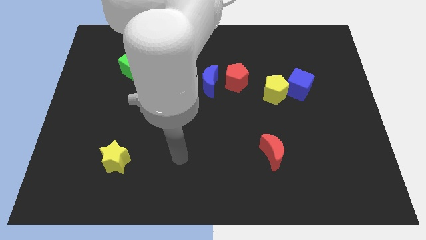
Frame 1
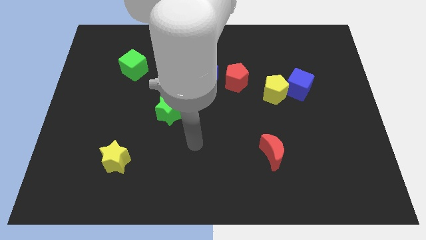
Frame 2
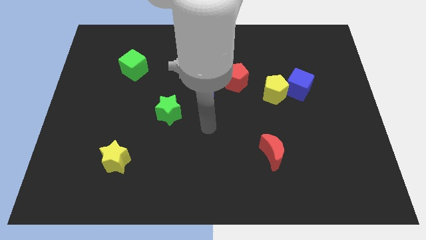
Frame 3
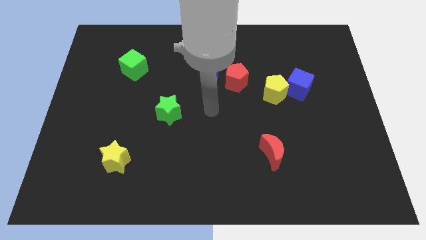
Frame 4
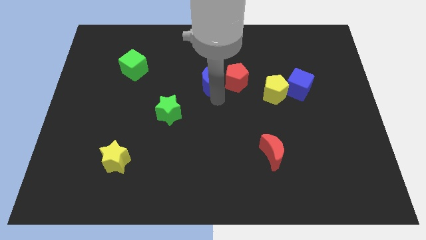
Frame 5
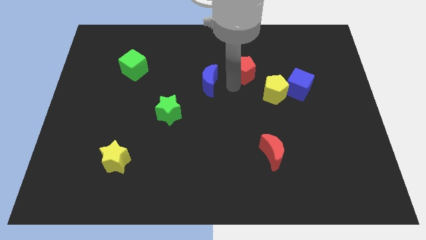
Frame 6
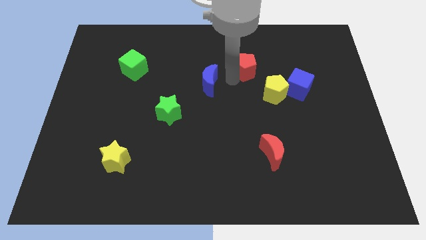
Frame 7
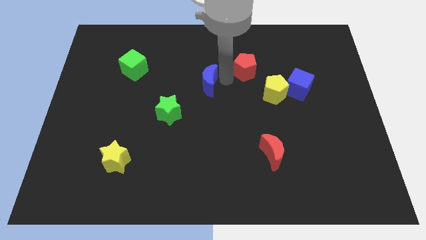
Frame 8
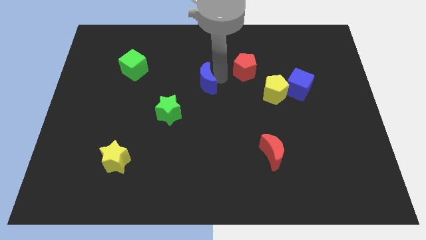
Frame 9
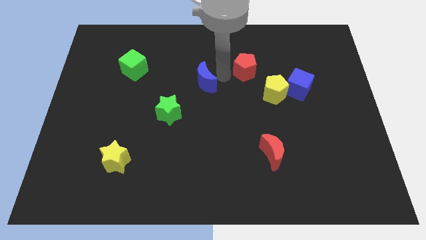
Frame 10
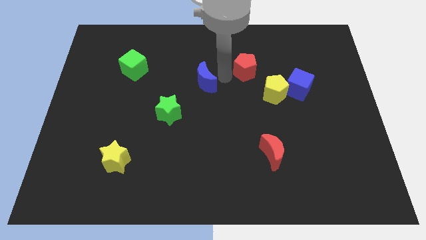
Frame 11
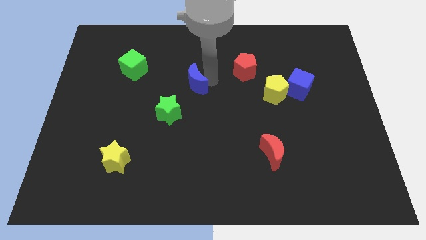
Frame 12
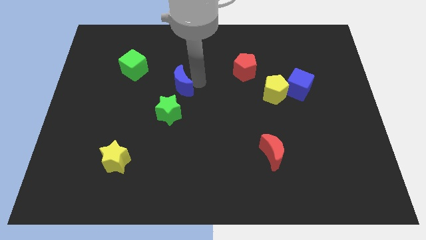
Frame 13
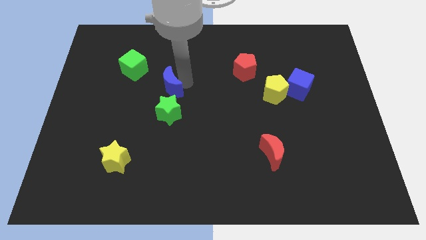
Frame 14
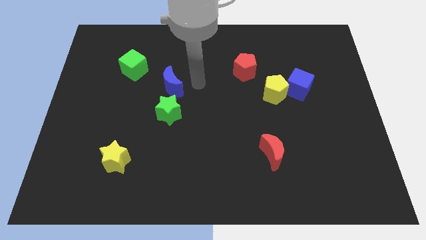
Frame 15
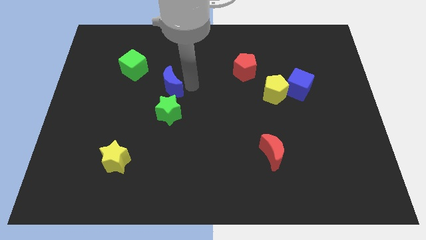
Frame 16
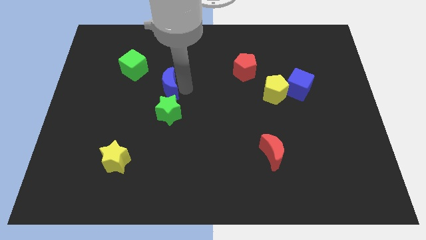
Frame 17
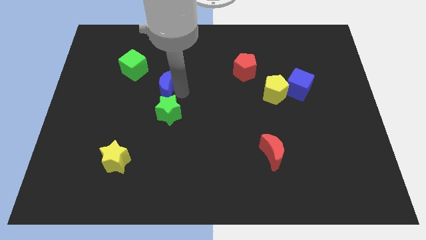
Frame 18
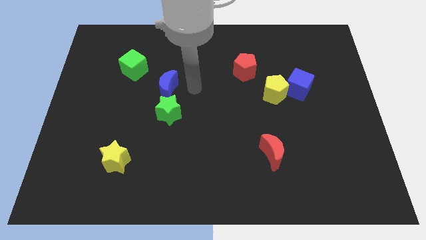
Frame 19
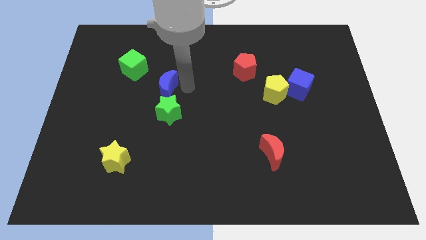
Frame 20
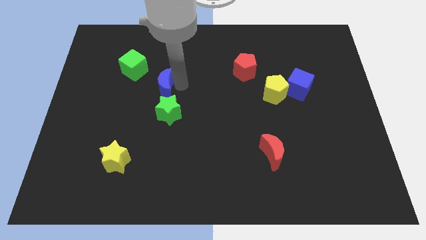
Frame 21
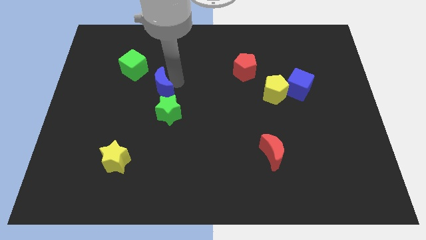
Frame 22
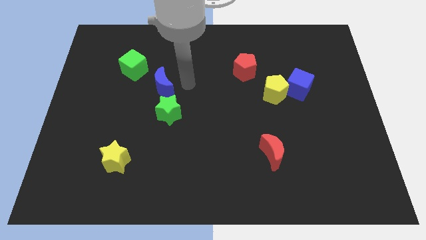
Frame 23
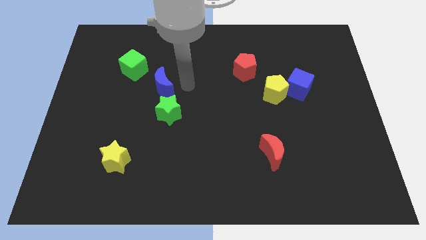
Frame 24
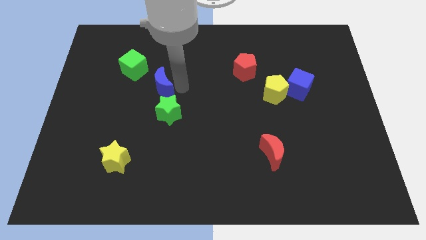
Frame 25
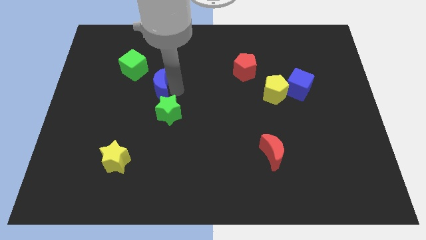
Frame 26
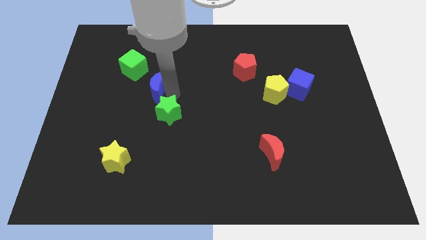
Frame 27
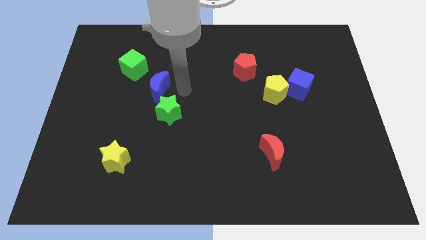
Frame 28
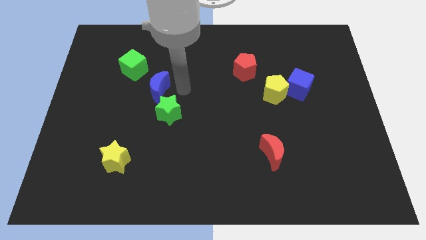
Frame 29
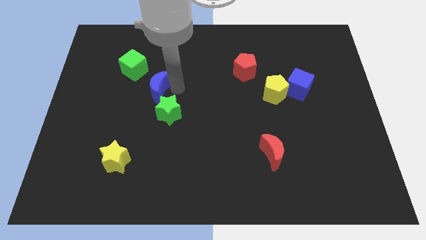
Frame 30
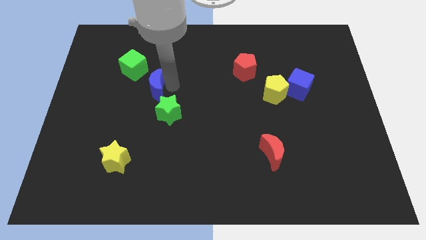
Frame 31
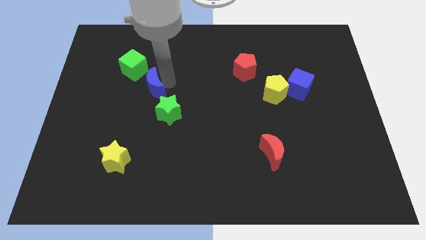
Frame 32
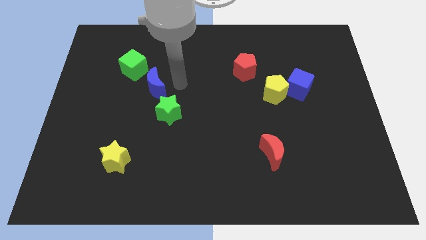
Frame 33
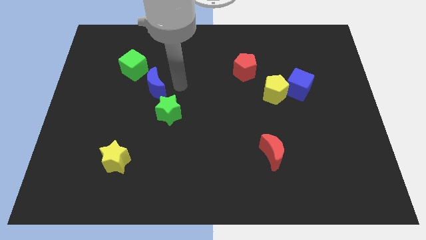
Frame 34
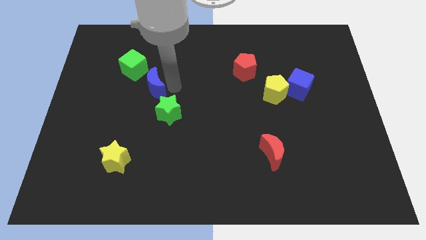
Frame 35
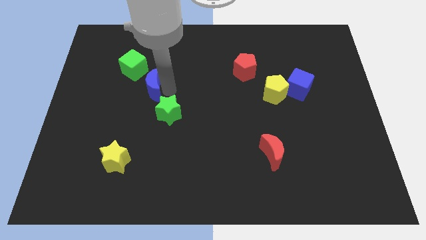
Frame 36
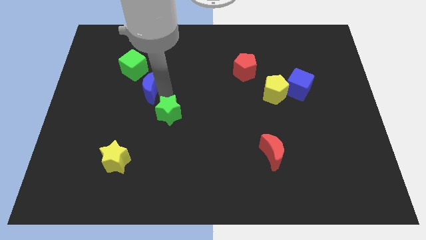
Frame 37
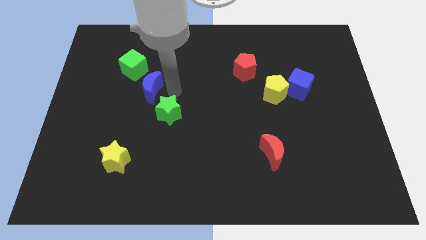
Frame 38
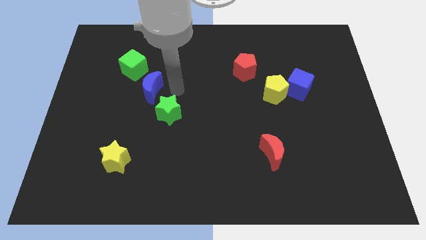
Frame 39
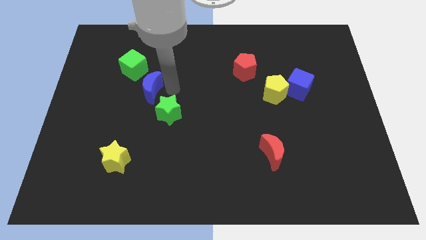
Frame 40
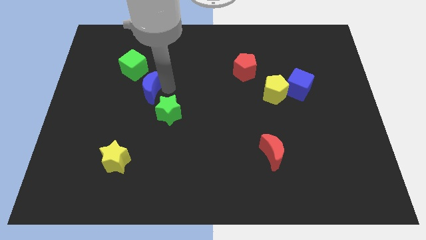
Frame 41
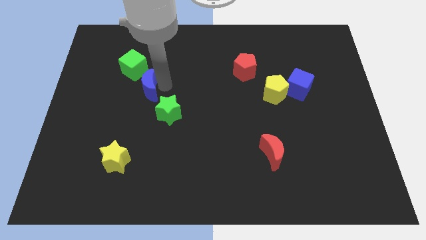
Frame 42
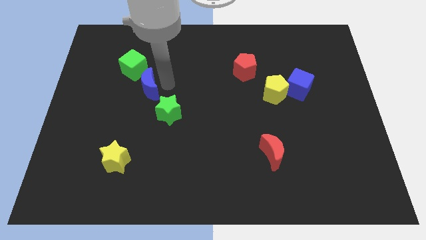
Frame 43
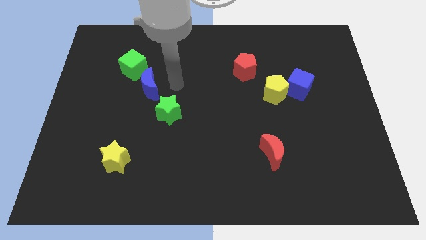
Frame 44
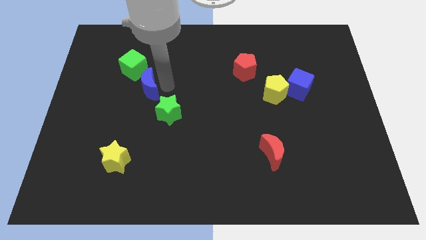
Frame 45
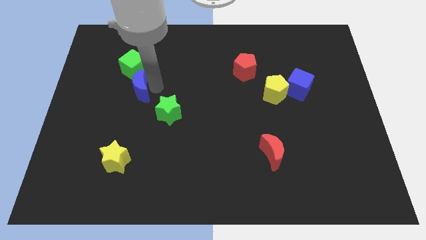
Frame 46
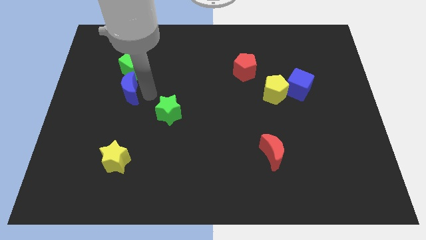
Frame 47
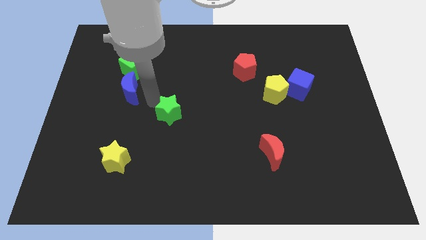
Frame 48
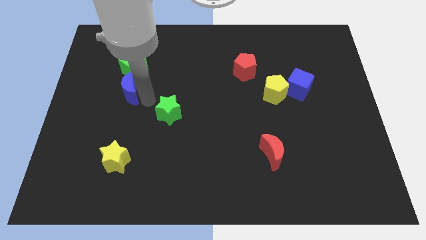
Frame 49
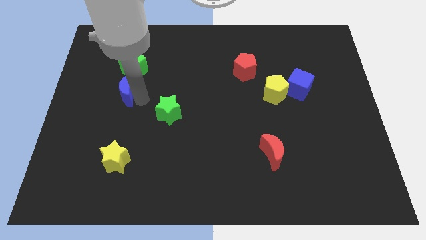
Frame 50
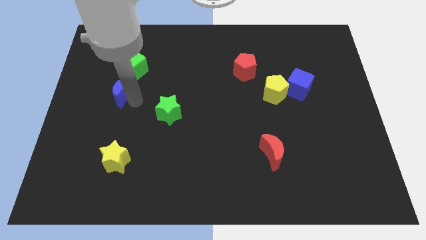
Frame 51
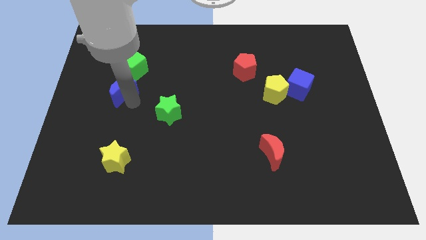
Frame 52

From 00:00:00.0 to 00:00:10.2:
put the blue moon to the bottom left of the green cube

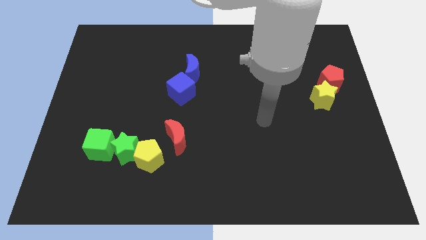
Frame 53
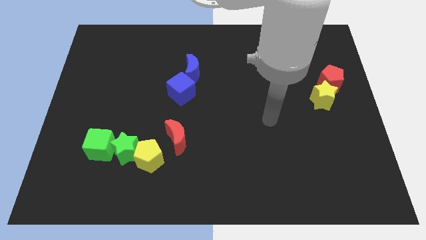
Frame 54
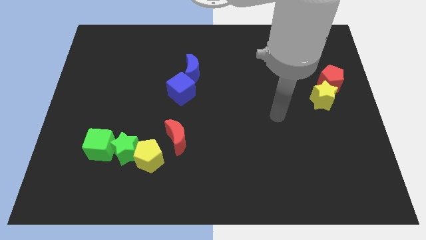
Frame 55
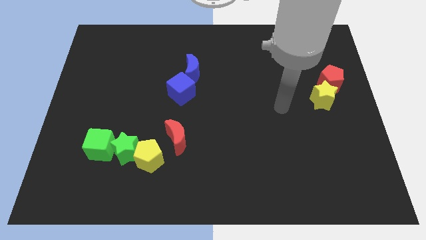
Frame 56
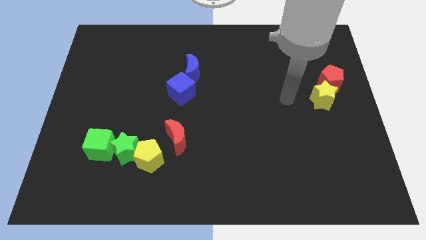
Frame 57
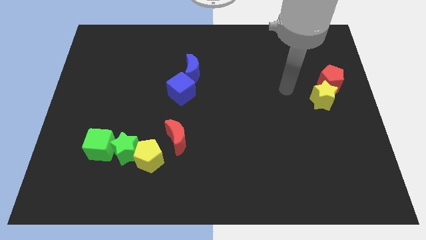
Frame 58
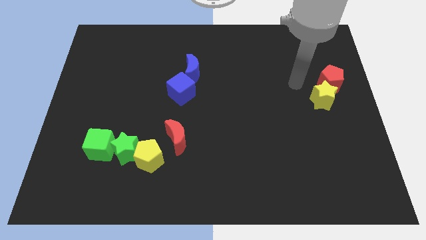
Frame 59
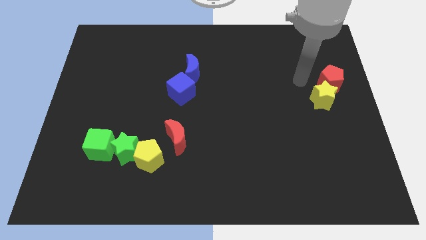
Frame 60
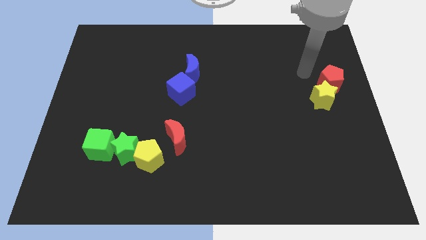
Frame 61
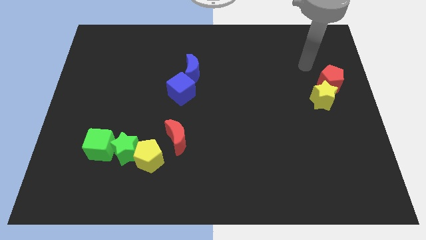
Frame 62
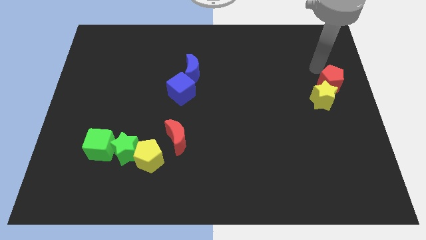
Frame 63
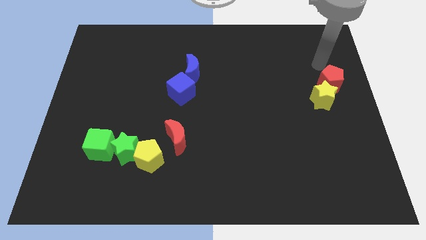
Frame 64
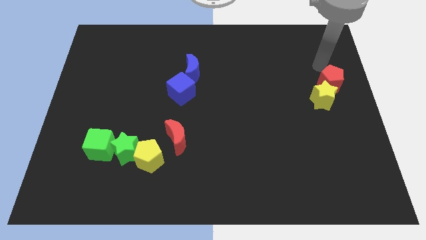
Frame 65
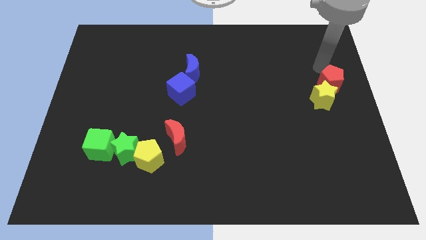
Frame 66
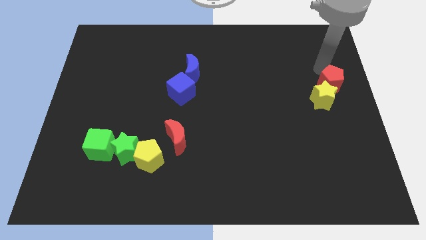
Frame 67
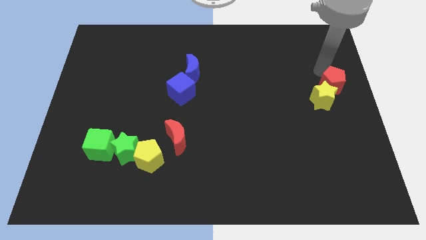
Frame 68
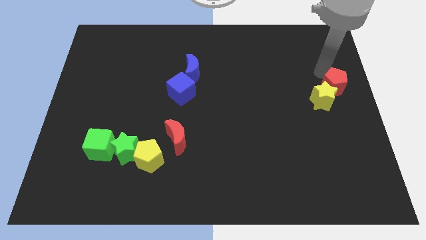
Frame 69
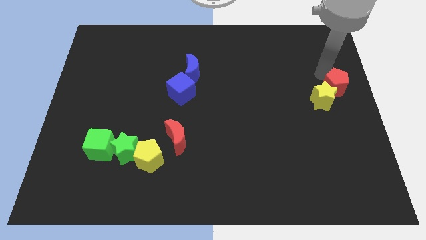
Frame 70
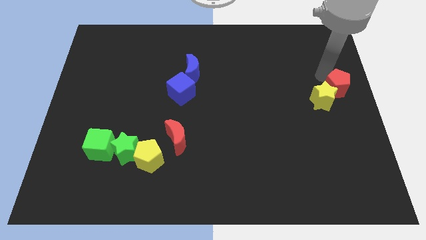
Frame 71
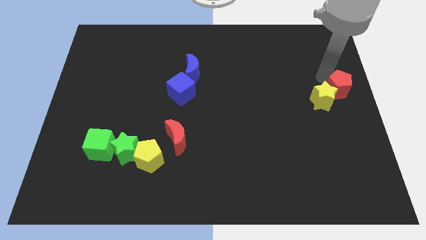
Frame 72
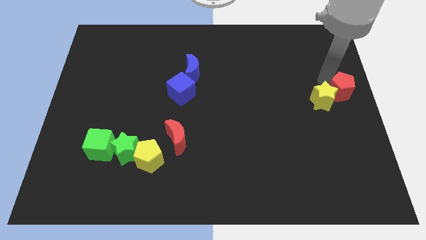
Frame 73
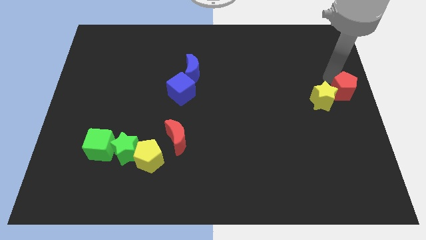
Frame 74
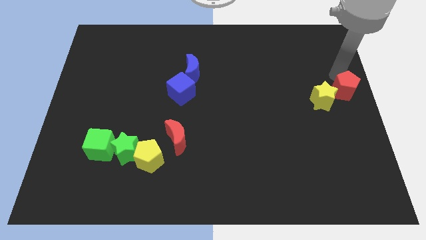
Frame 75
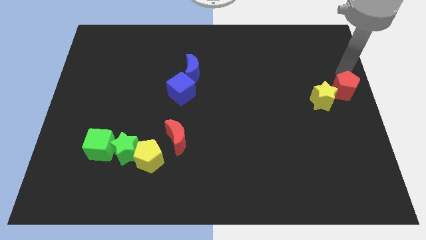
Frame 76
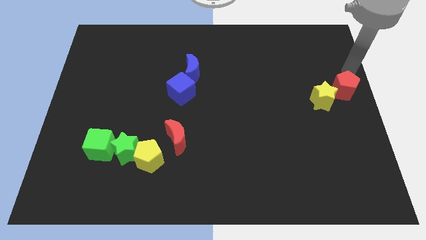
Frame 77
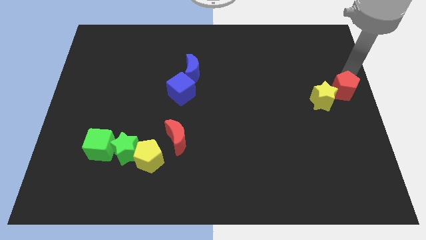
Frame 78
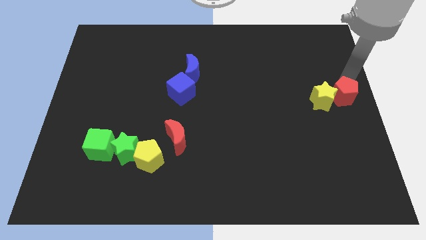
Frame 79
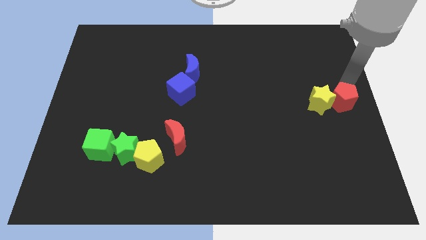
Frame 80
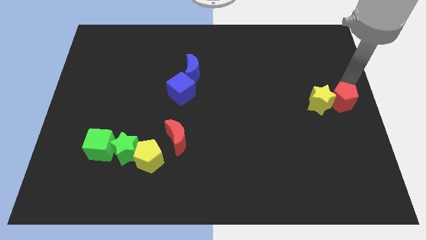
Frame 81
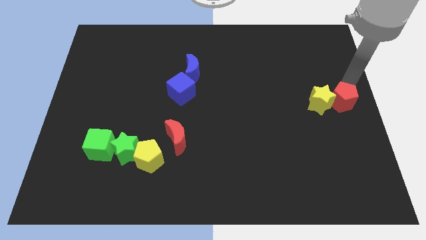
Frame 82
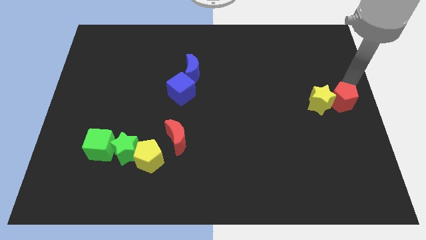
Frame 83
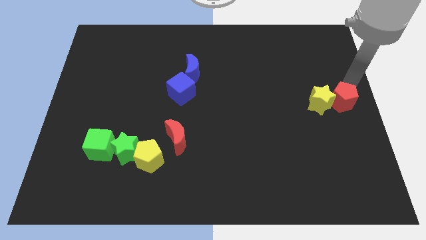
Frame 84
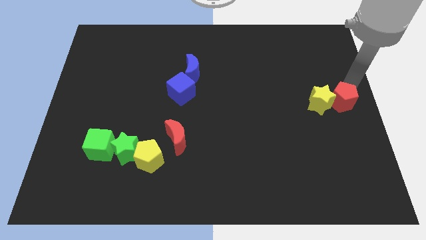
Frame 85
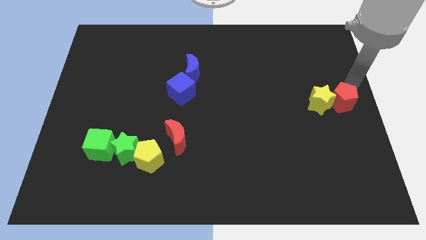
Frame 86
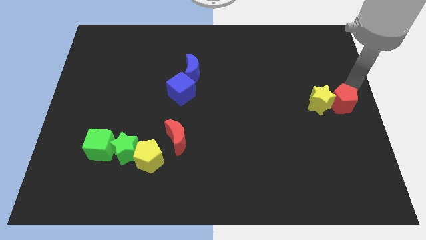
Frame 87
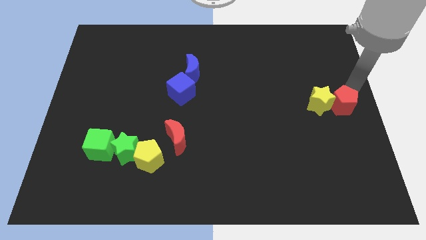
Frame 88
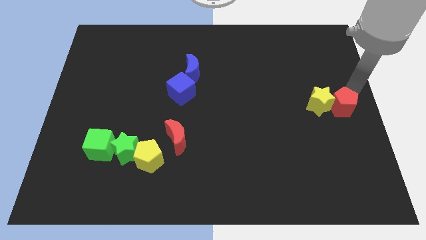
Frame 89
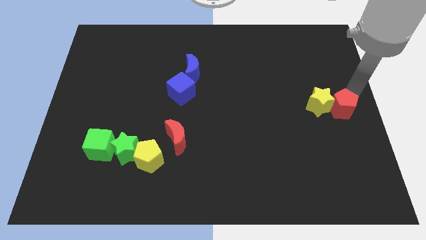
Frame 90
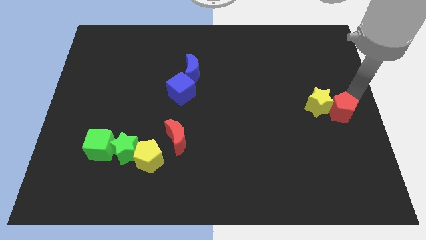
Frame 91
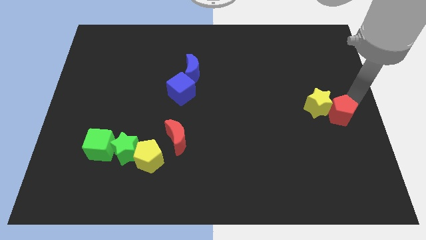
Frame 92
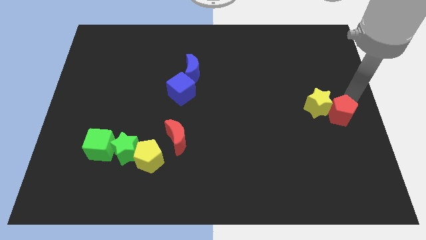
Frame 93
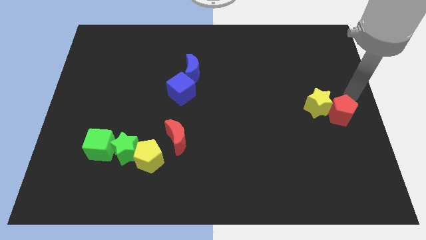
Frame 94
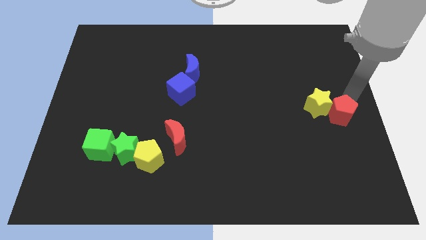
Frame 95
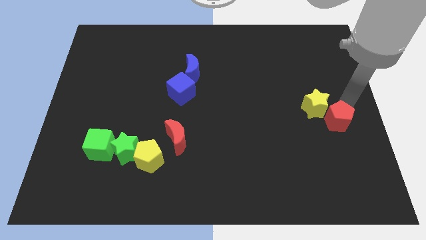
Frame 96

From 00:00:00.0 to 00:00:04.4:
slide the red pentagon to the bottom side of the yellow star
